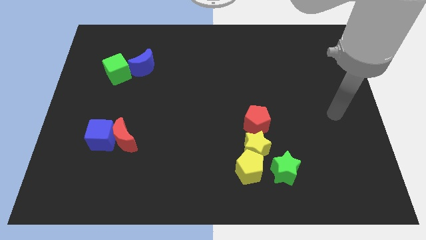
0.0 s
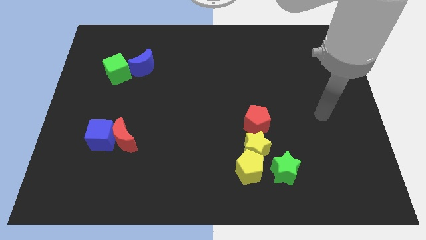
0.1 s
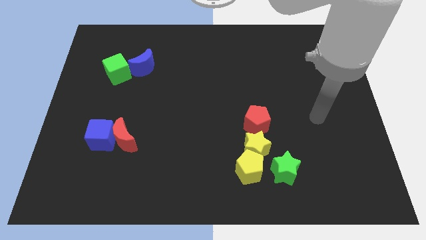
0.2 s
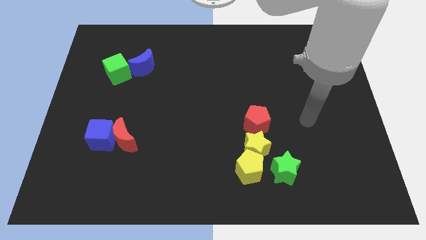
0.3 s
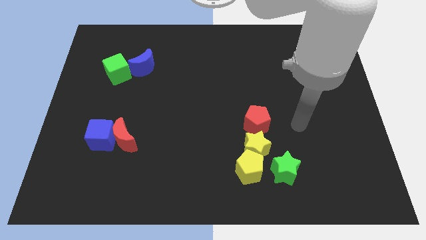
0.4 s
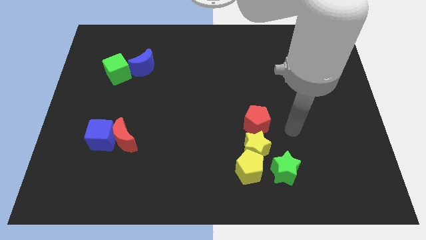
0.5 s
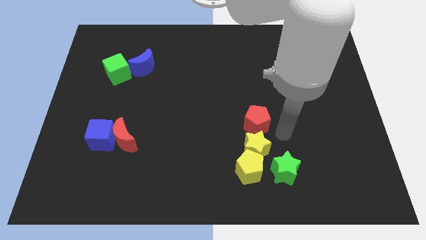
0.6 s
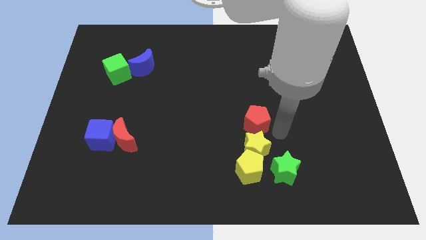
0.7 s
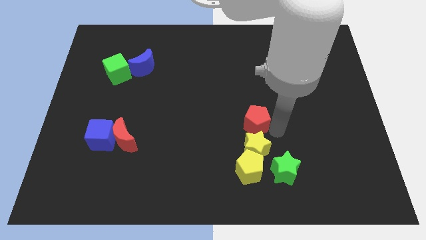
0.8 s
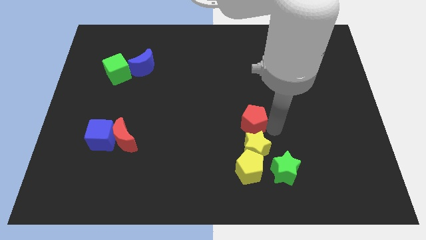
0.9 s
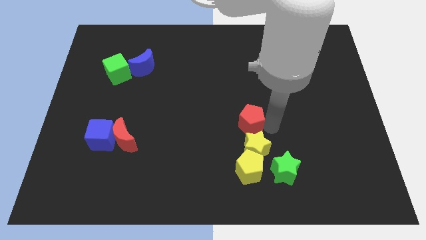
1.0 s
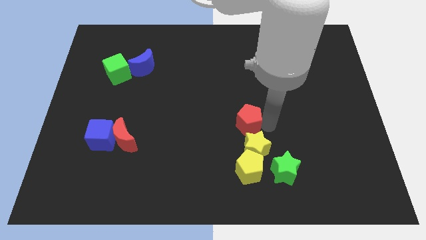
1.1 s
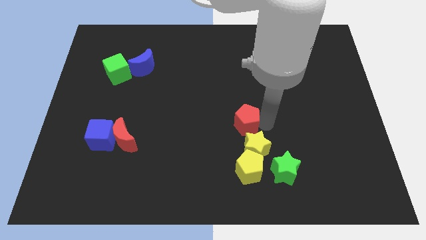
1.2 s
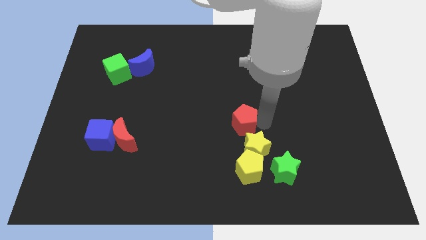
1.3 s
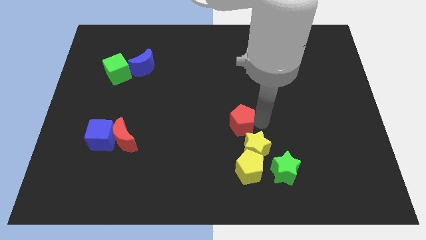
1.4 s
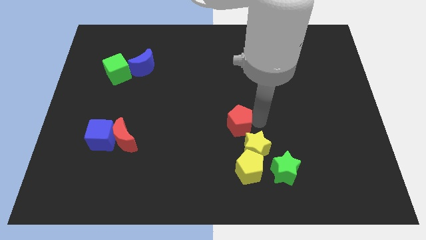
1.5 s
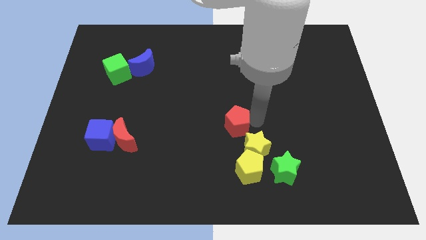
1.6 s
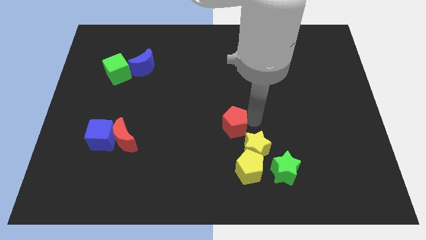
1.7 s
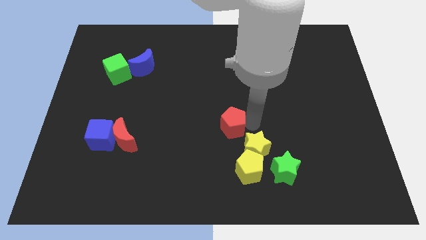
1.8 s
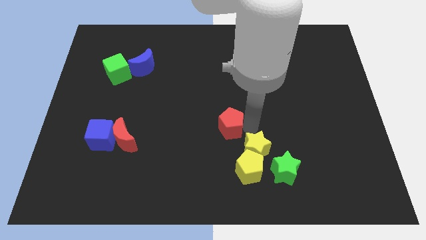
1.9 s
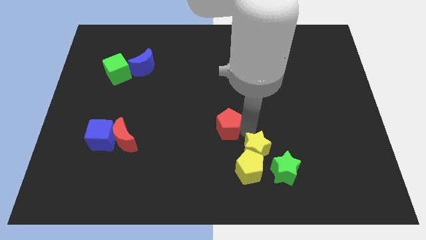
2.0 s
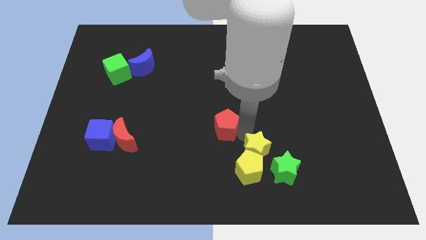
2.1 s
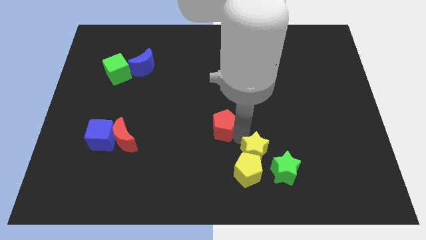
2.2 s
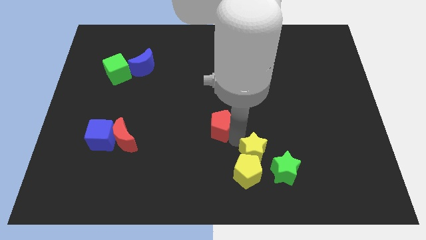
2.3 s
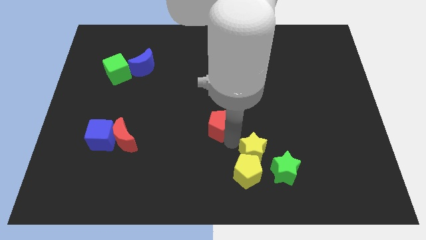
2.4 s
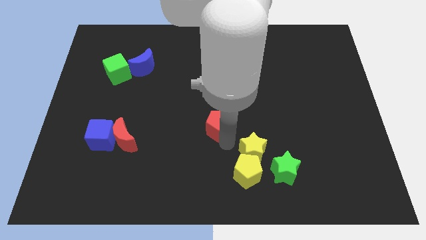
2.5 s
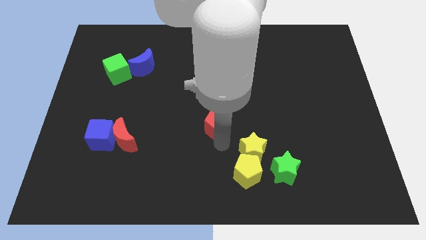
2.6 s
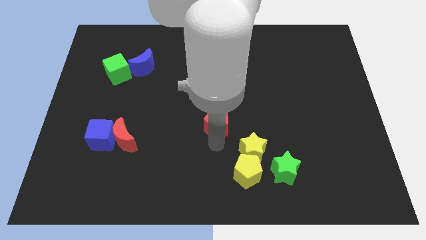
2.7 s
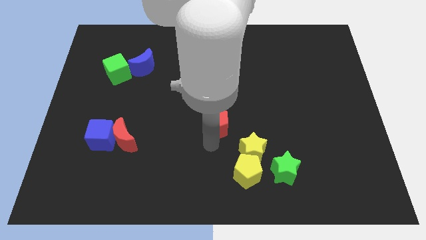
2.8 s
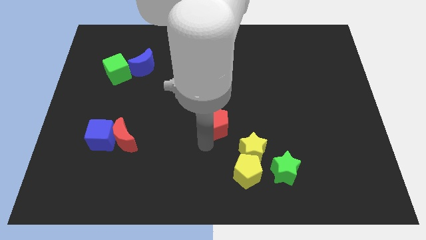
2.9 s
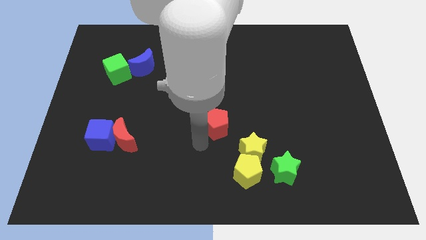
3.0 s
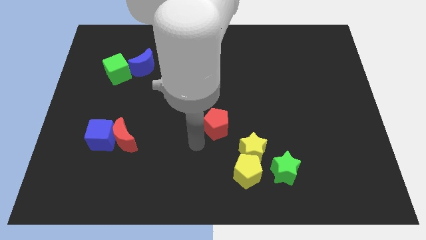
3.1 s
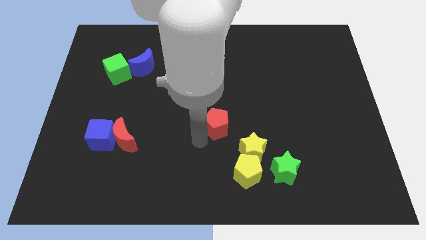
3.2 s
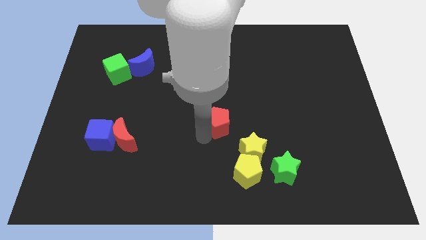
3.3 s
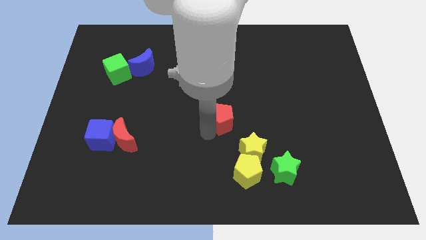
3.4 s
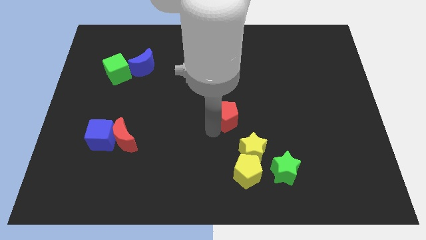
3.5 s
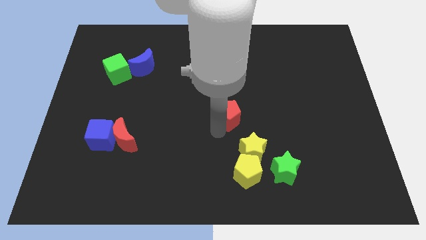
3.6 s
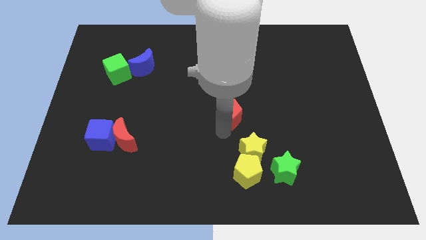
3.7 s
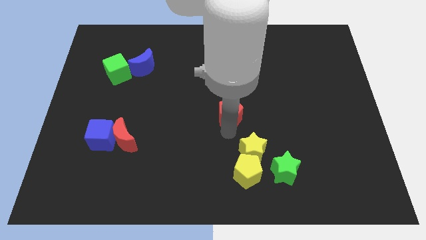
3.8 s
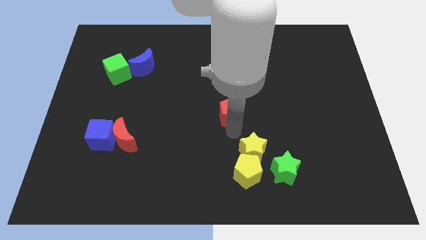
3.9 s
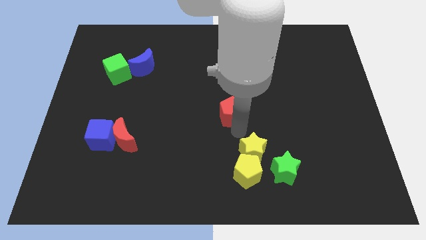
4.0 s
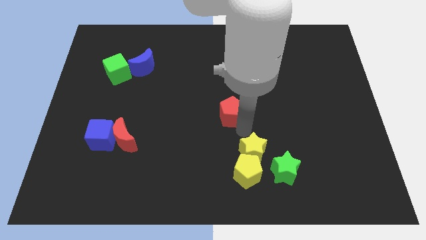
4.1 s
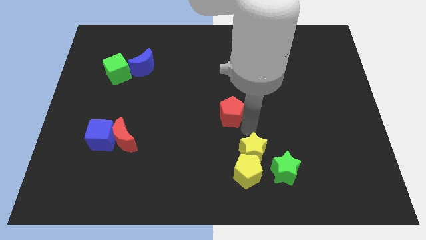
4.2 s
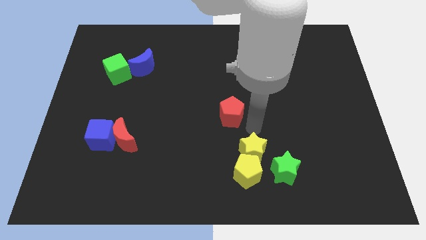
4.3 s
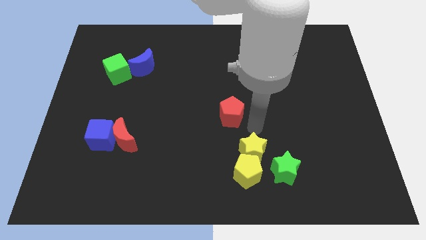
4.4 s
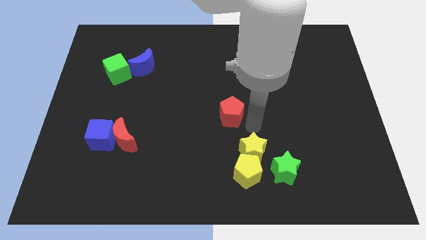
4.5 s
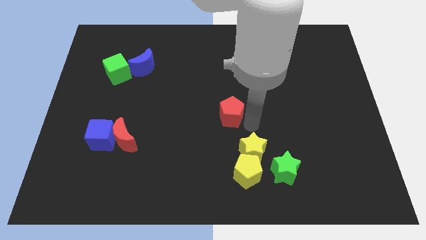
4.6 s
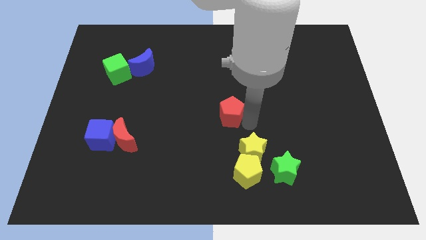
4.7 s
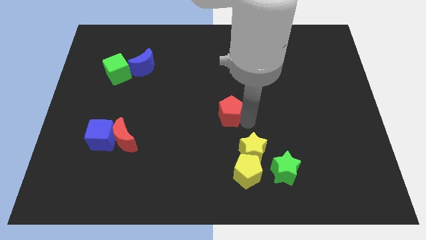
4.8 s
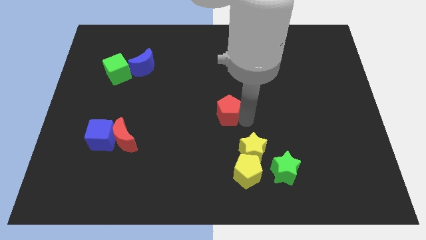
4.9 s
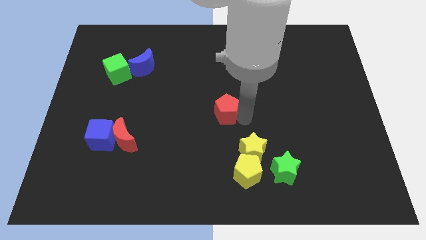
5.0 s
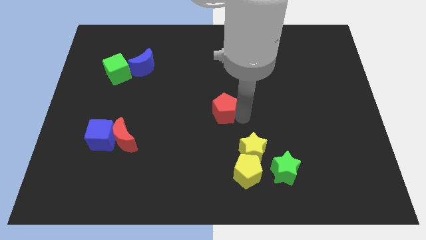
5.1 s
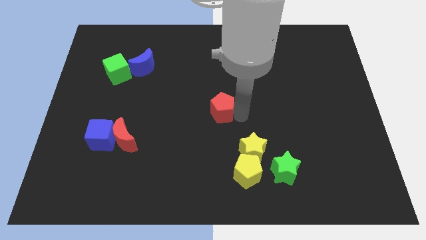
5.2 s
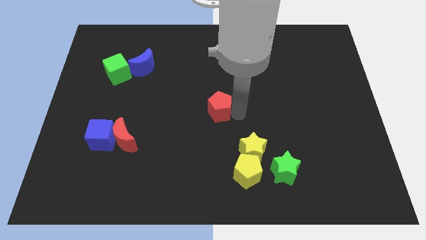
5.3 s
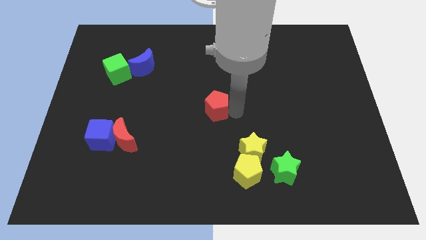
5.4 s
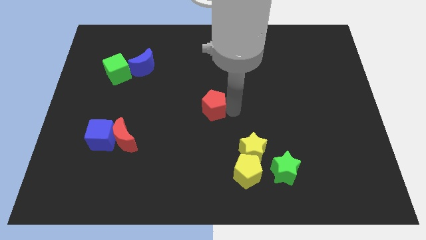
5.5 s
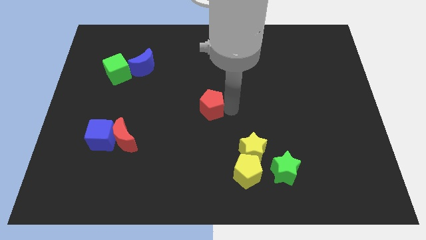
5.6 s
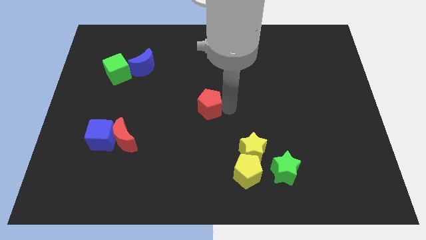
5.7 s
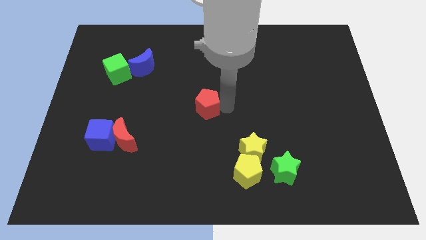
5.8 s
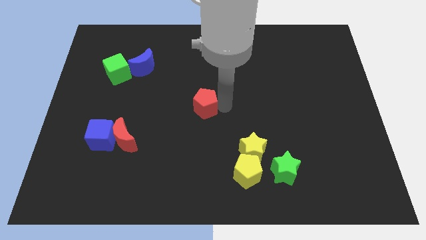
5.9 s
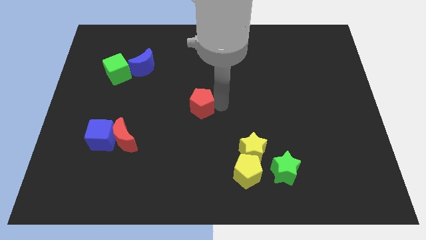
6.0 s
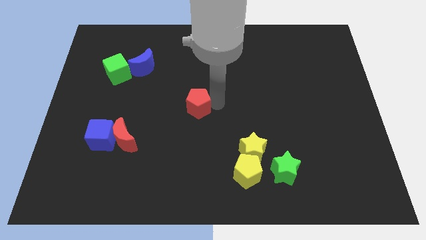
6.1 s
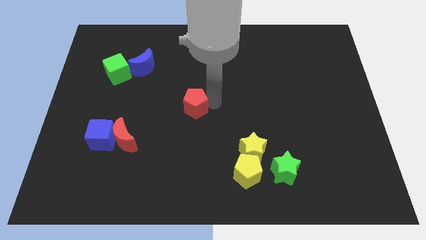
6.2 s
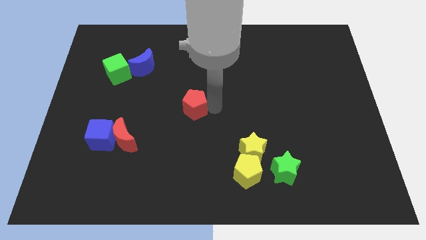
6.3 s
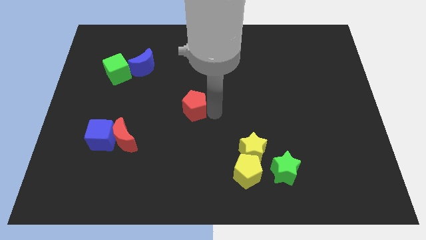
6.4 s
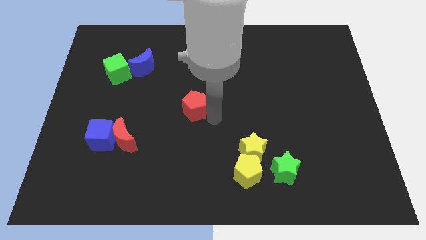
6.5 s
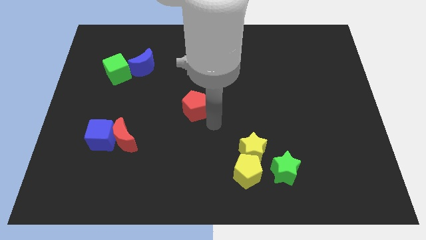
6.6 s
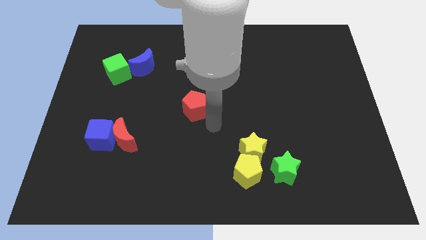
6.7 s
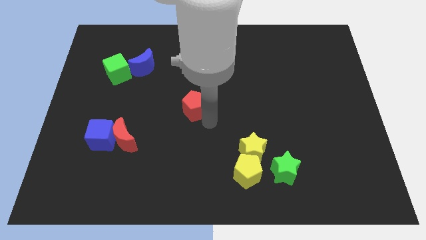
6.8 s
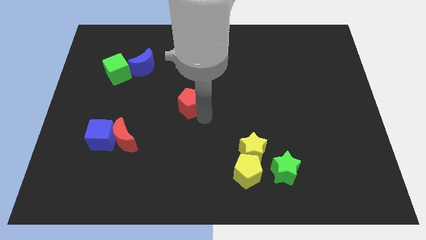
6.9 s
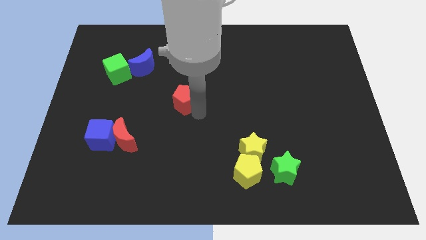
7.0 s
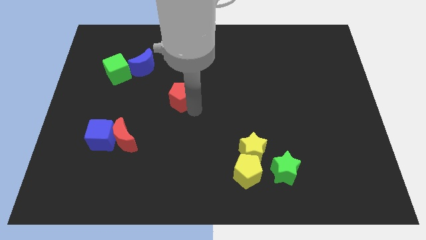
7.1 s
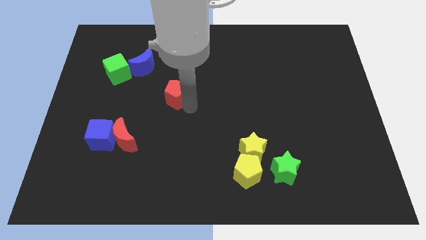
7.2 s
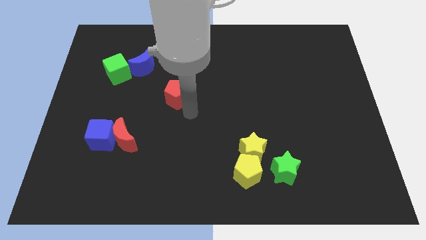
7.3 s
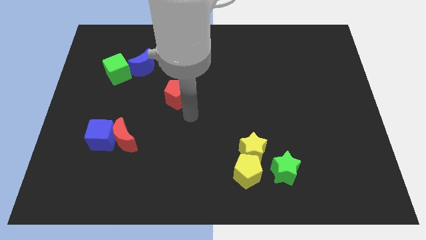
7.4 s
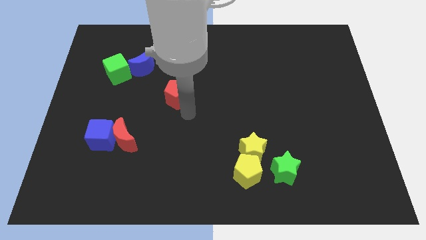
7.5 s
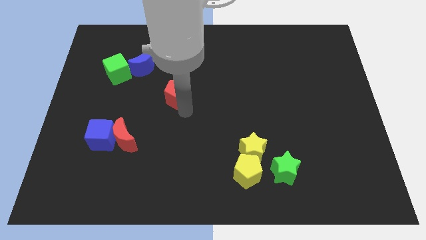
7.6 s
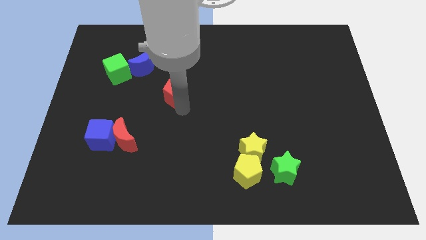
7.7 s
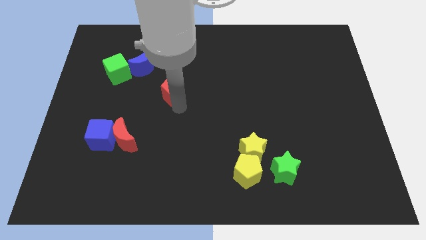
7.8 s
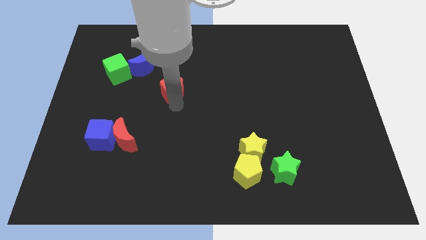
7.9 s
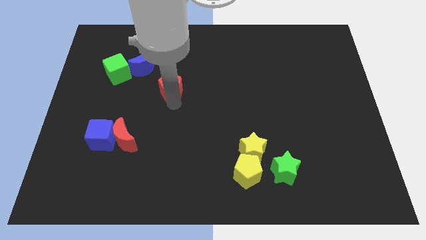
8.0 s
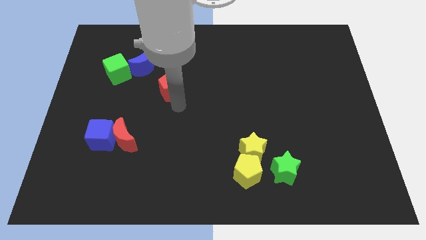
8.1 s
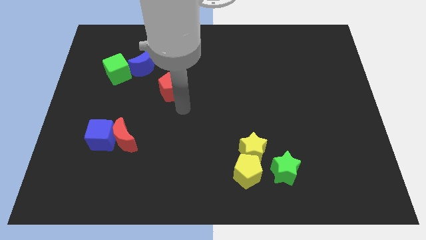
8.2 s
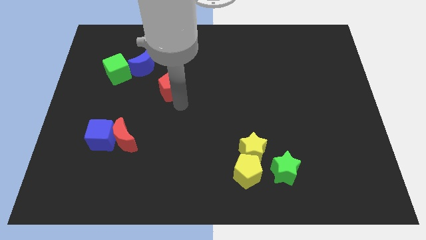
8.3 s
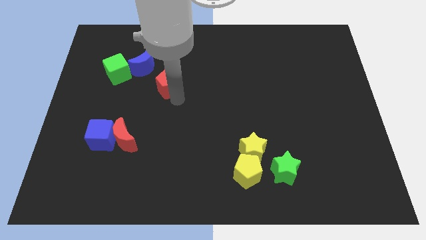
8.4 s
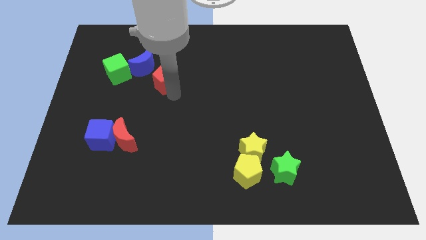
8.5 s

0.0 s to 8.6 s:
push the red pentagon to the right side of the green cube
